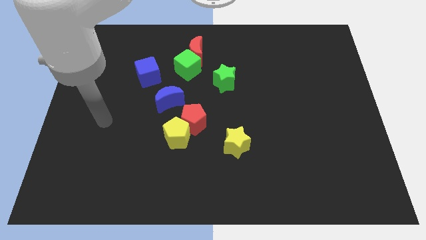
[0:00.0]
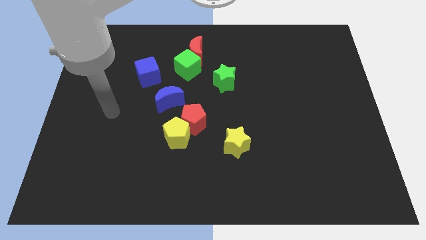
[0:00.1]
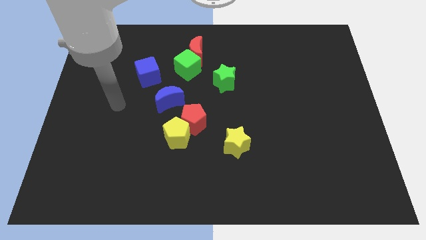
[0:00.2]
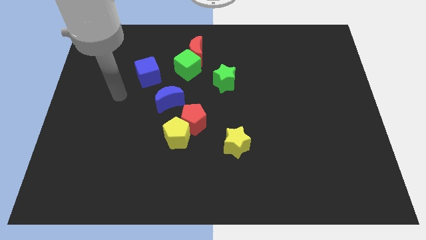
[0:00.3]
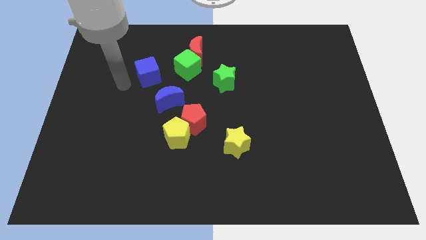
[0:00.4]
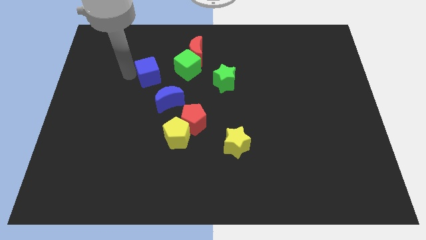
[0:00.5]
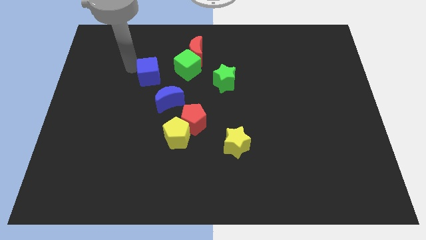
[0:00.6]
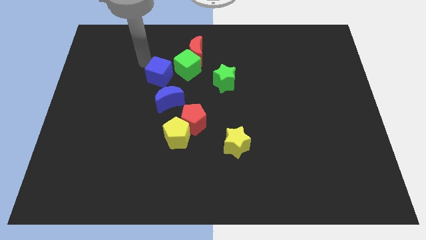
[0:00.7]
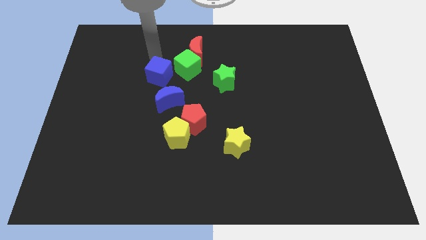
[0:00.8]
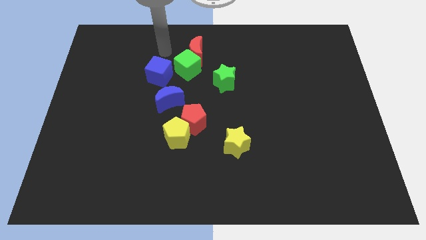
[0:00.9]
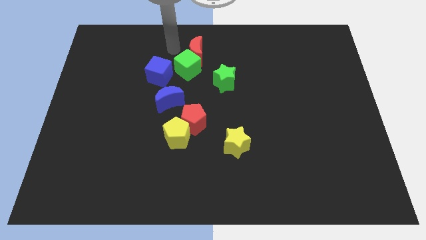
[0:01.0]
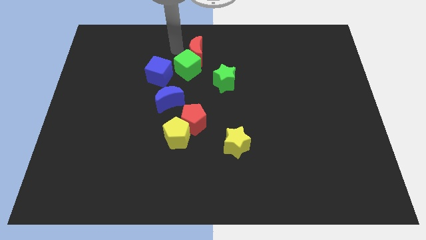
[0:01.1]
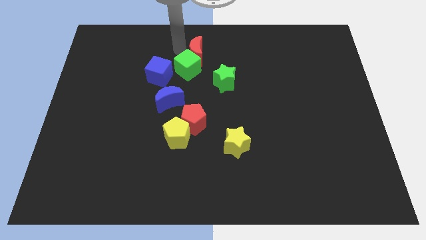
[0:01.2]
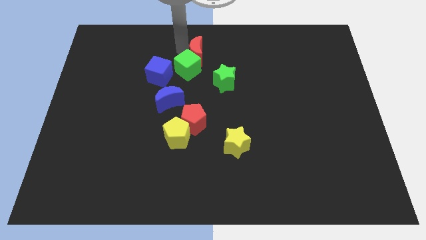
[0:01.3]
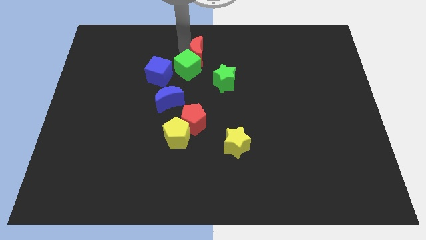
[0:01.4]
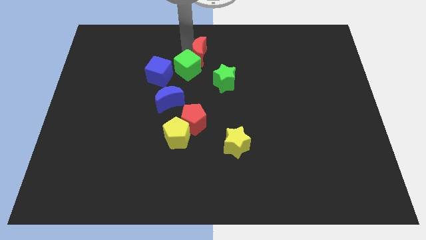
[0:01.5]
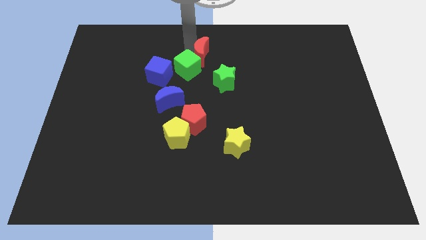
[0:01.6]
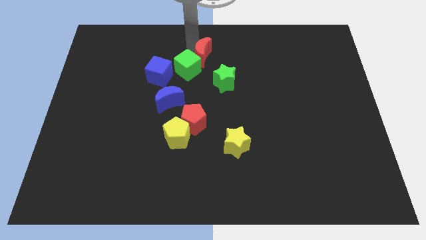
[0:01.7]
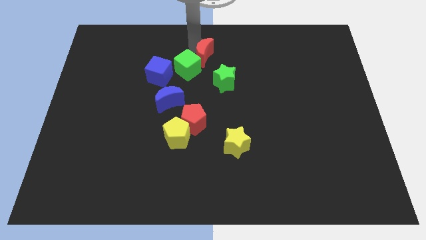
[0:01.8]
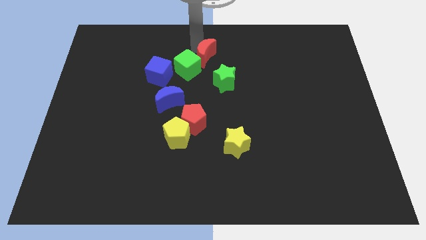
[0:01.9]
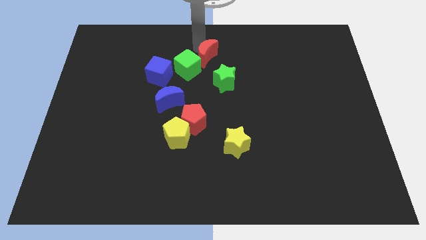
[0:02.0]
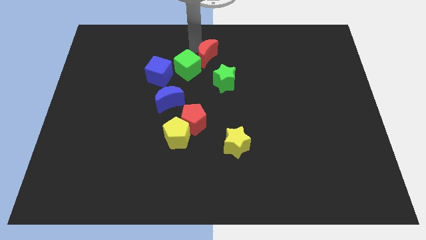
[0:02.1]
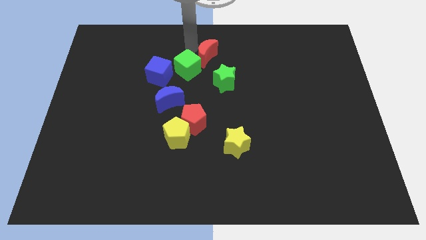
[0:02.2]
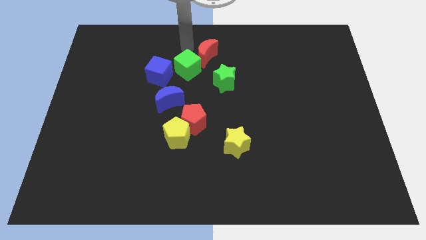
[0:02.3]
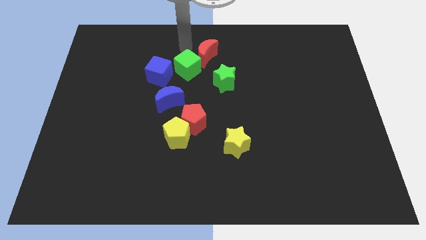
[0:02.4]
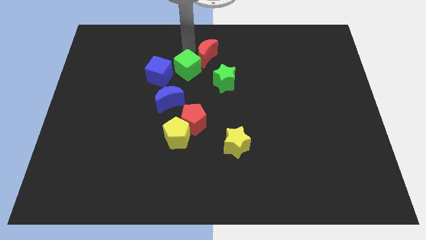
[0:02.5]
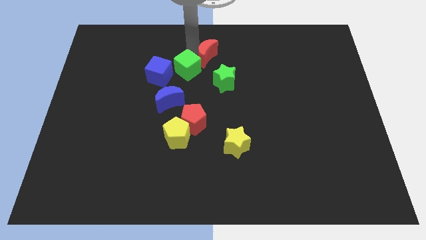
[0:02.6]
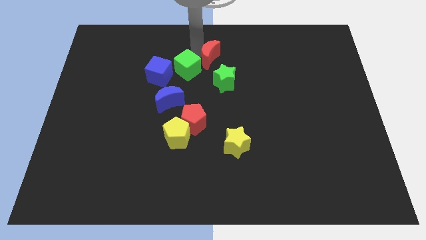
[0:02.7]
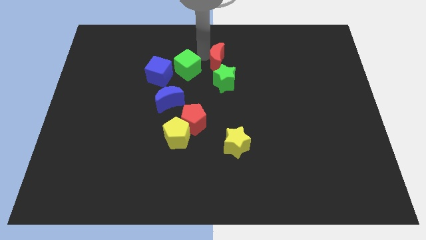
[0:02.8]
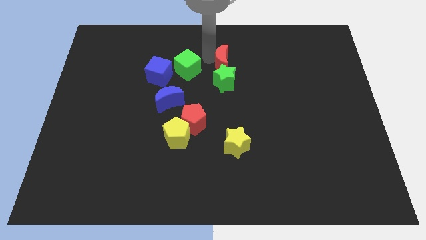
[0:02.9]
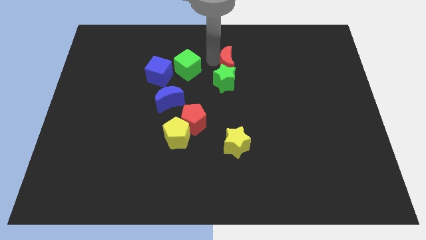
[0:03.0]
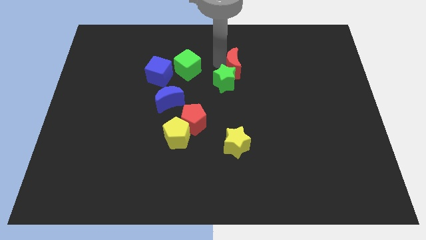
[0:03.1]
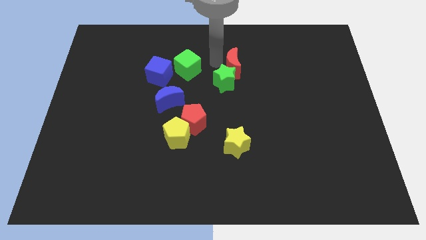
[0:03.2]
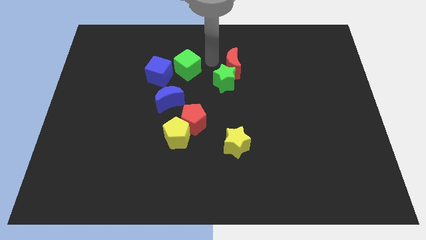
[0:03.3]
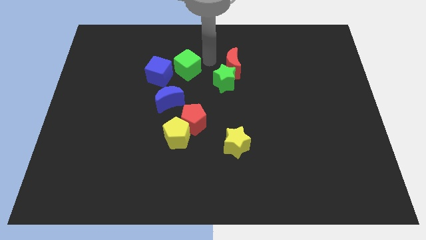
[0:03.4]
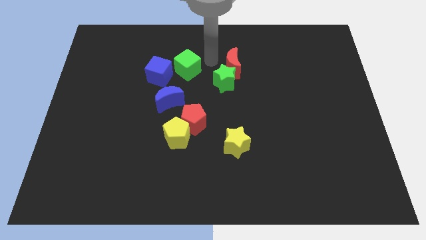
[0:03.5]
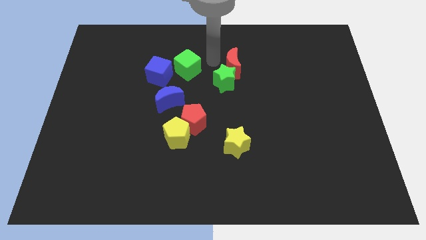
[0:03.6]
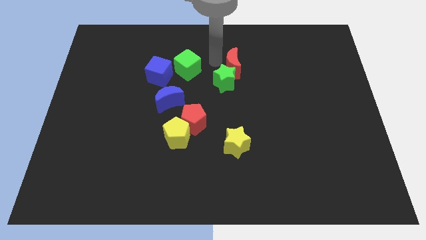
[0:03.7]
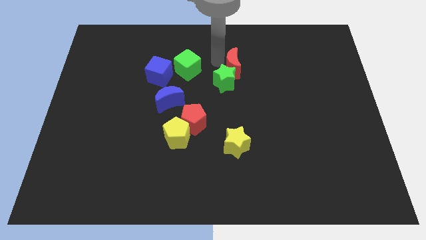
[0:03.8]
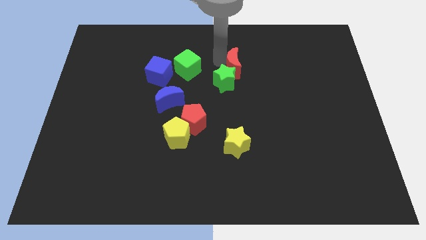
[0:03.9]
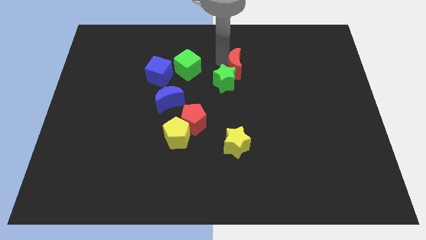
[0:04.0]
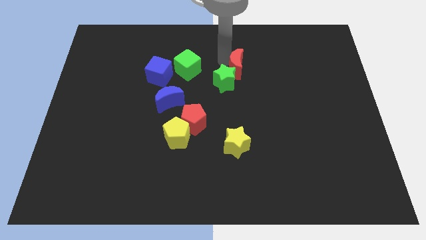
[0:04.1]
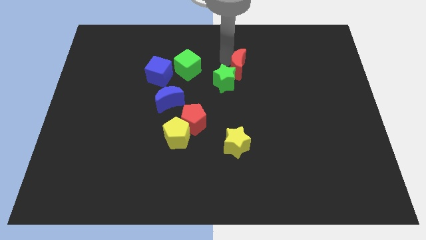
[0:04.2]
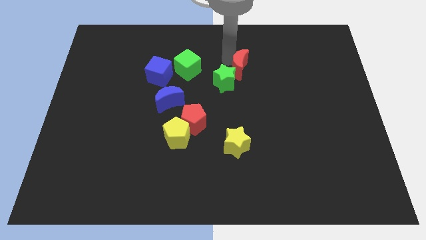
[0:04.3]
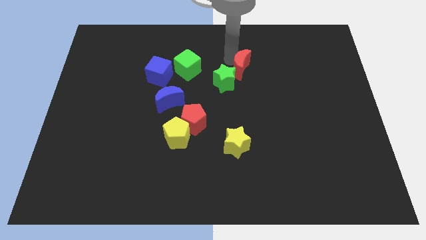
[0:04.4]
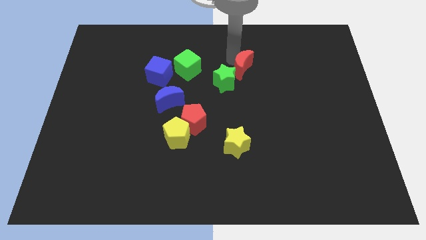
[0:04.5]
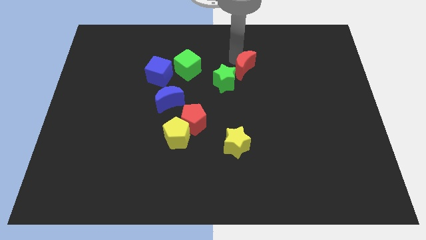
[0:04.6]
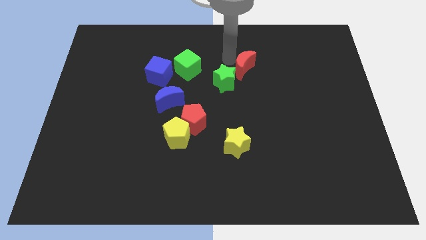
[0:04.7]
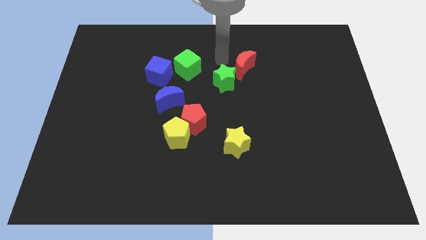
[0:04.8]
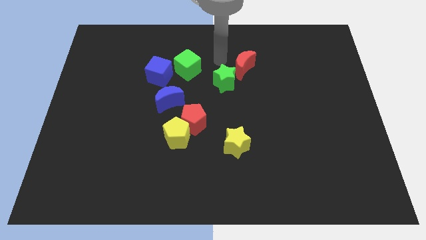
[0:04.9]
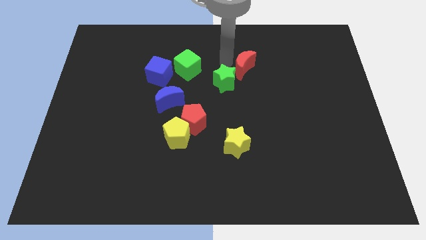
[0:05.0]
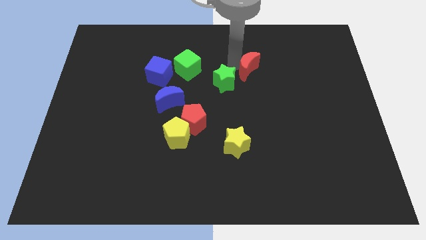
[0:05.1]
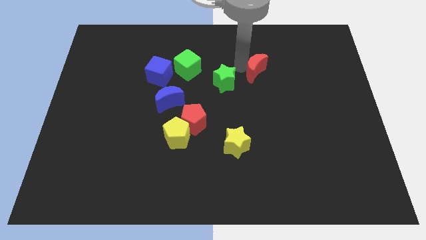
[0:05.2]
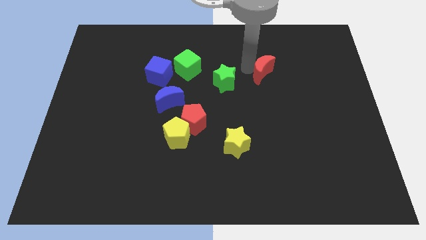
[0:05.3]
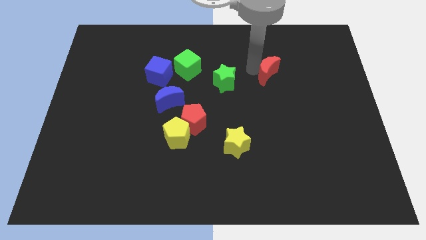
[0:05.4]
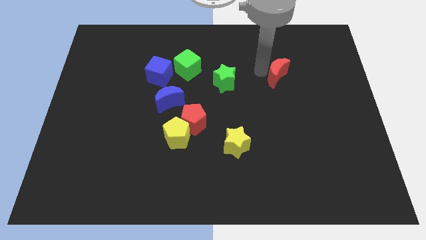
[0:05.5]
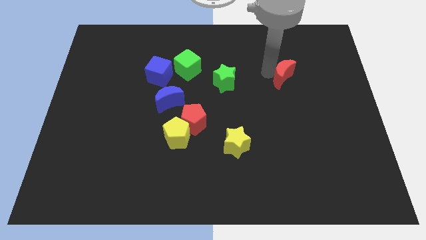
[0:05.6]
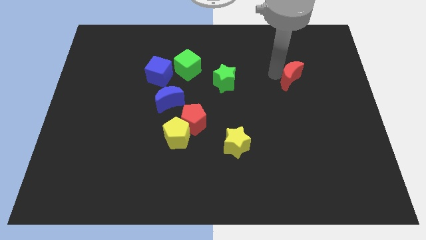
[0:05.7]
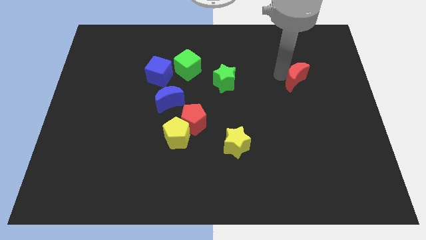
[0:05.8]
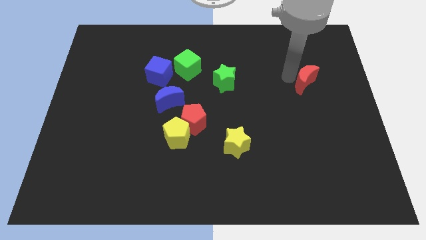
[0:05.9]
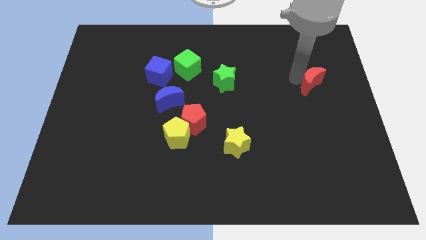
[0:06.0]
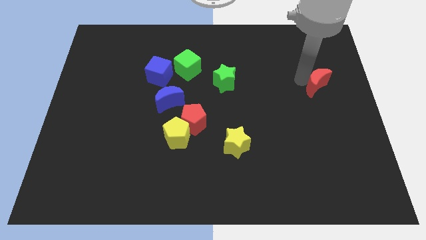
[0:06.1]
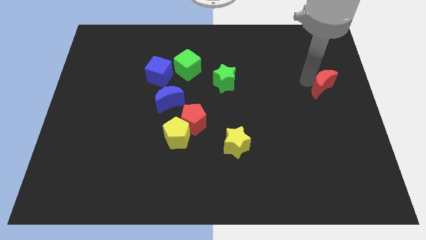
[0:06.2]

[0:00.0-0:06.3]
push the red moon to the center right
